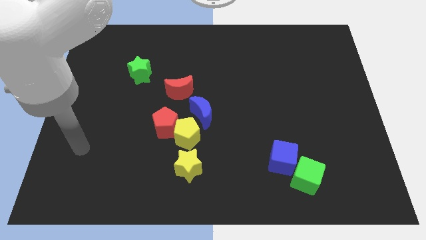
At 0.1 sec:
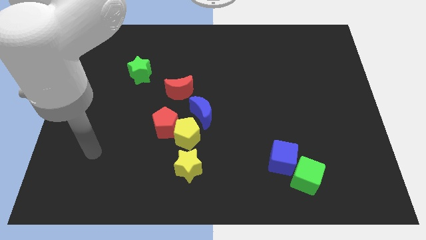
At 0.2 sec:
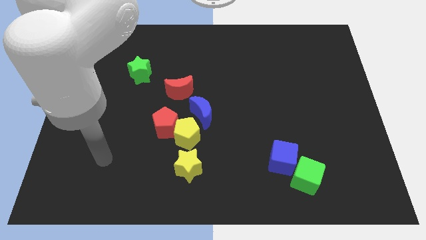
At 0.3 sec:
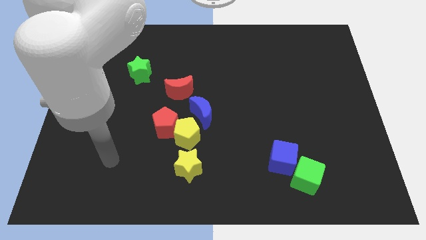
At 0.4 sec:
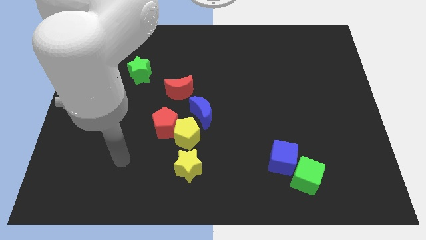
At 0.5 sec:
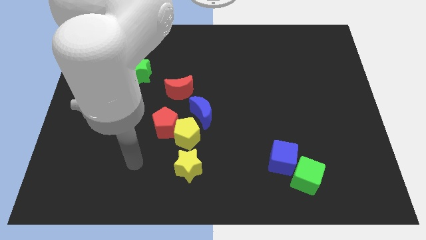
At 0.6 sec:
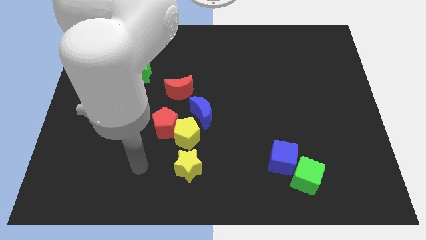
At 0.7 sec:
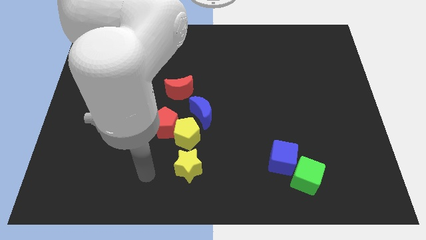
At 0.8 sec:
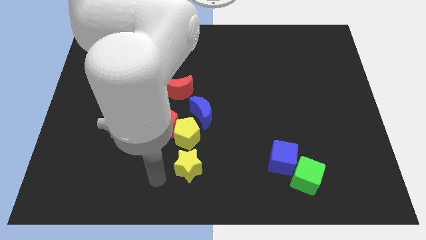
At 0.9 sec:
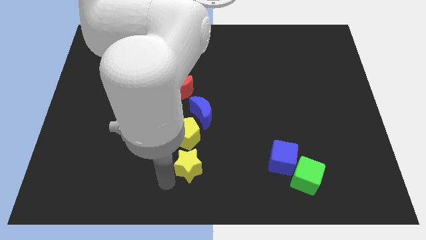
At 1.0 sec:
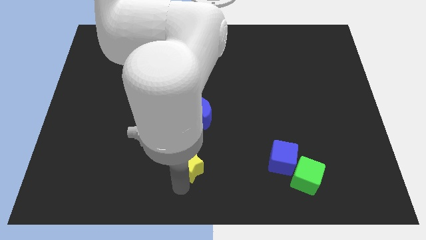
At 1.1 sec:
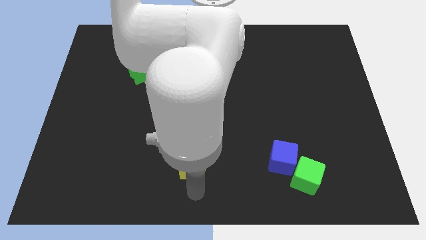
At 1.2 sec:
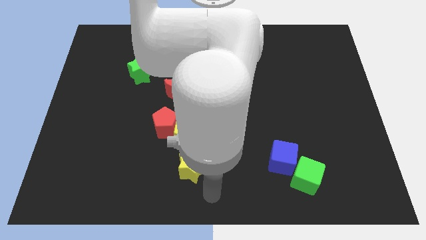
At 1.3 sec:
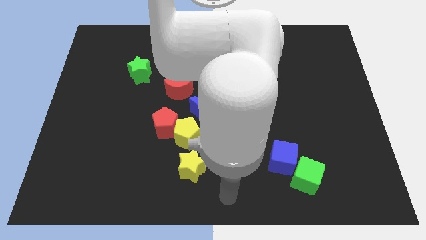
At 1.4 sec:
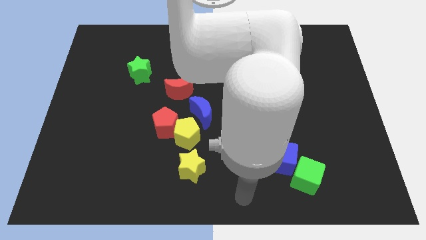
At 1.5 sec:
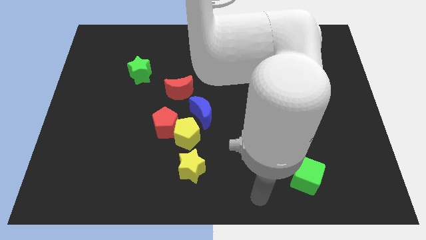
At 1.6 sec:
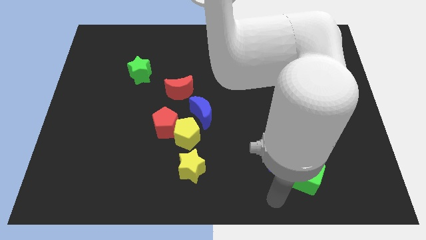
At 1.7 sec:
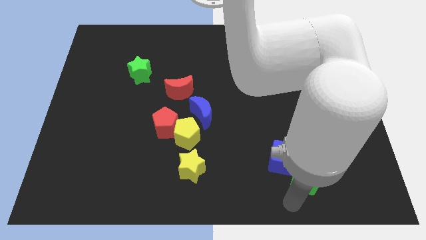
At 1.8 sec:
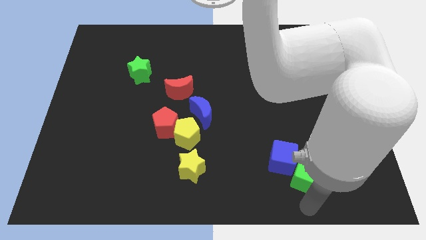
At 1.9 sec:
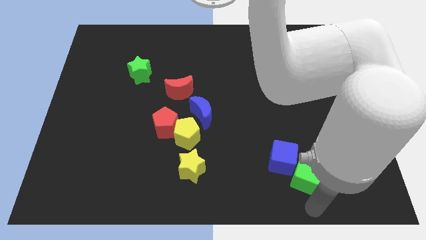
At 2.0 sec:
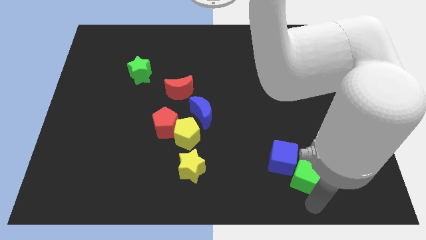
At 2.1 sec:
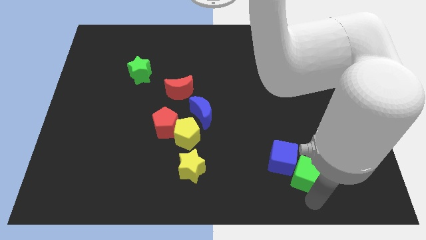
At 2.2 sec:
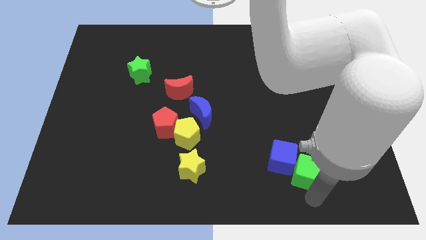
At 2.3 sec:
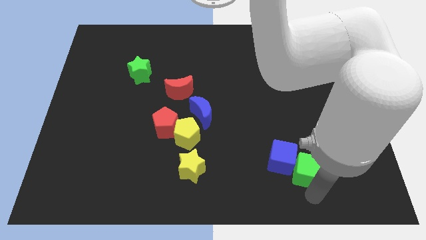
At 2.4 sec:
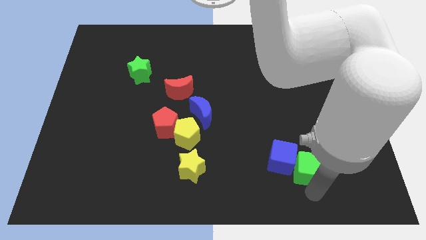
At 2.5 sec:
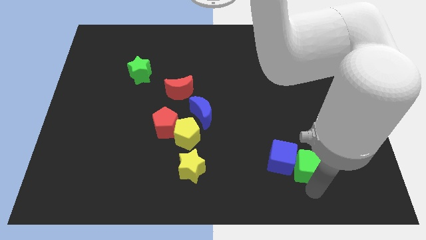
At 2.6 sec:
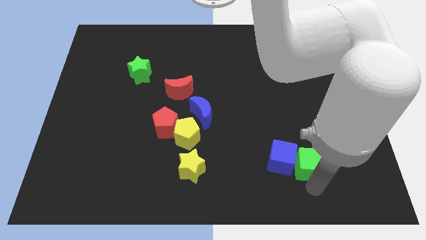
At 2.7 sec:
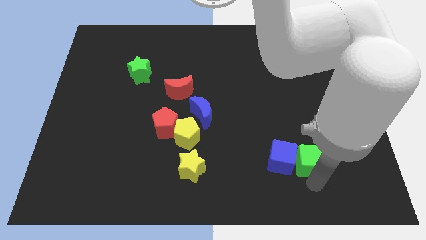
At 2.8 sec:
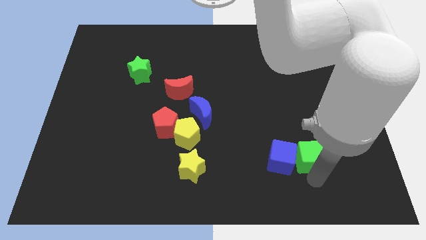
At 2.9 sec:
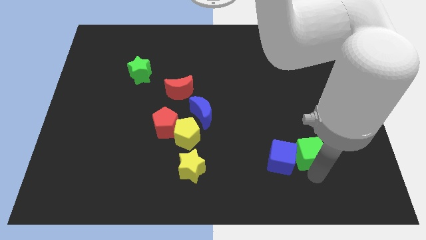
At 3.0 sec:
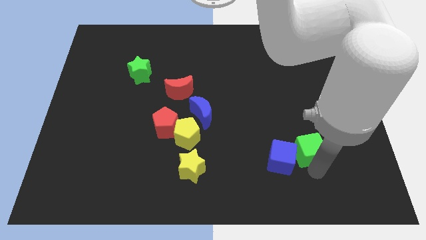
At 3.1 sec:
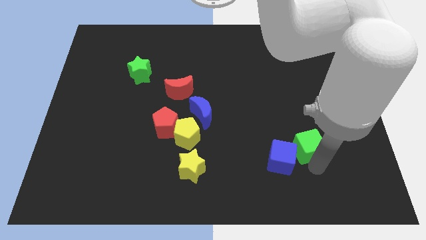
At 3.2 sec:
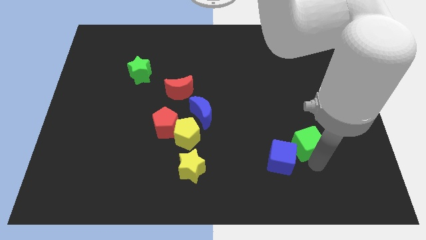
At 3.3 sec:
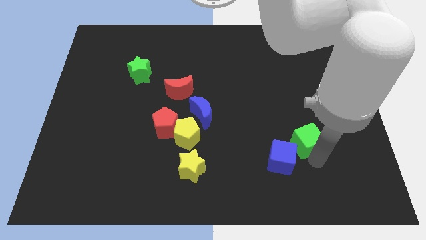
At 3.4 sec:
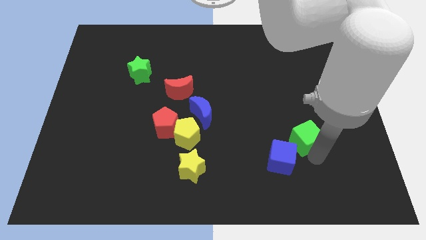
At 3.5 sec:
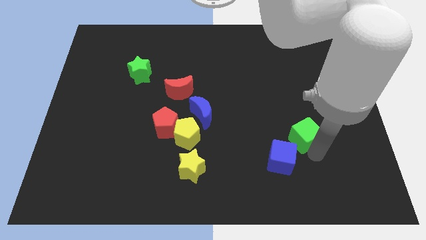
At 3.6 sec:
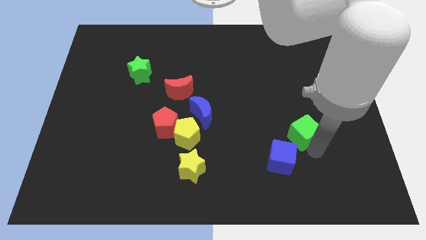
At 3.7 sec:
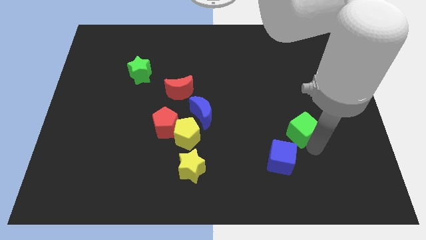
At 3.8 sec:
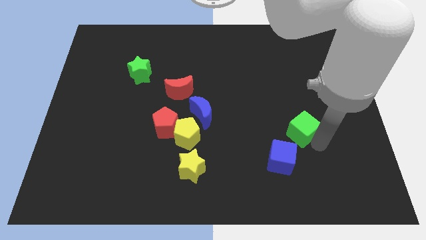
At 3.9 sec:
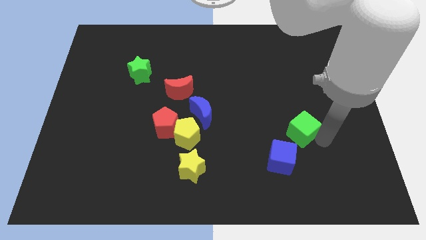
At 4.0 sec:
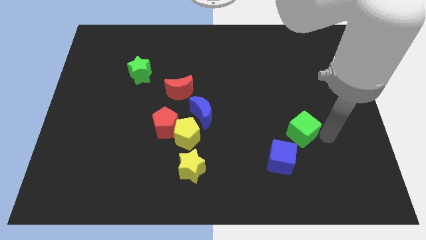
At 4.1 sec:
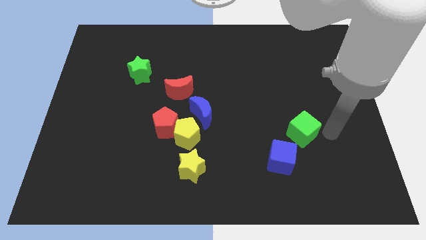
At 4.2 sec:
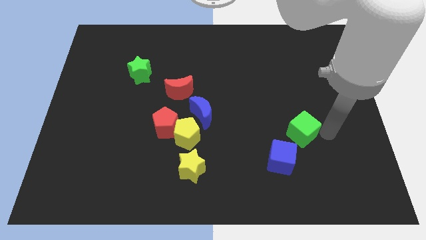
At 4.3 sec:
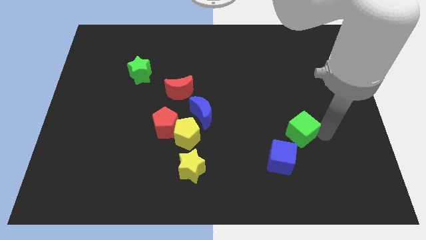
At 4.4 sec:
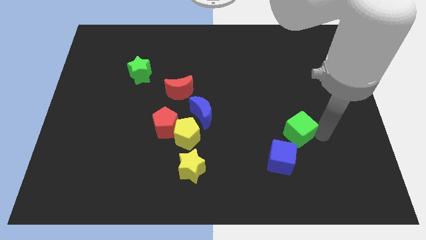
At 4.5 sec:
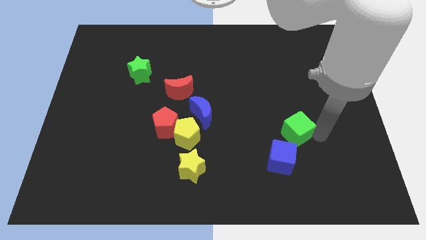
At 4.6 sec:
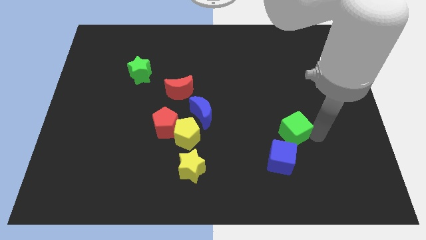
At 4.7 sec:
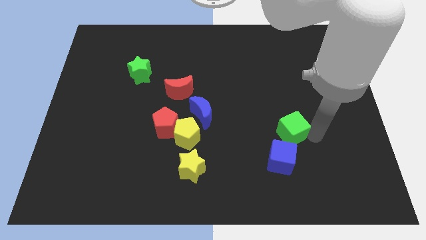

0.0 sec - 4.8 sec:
slightly move the green cube upwards and then left

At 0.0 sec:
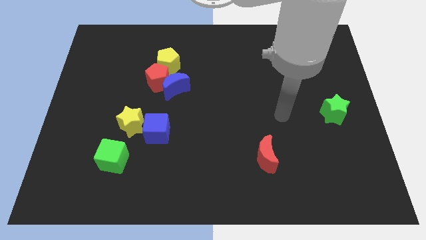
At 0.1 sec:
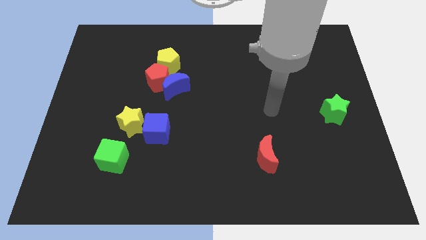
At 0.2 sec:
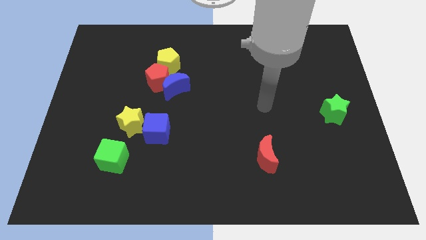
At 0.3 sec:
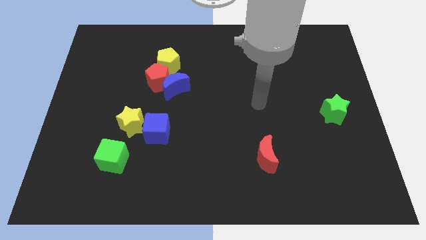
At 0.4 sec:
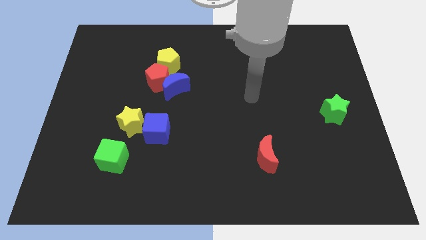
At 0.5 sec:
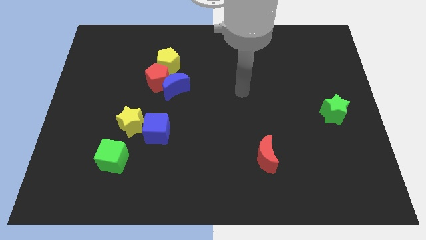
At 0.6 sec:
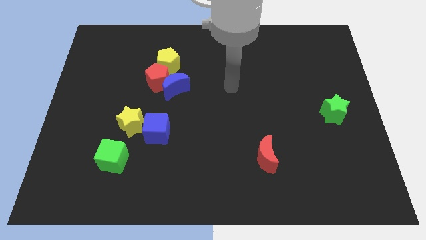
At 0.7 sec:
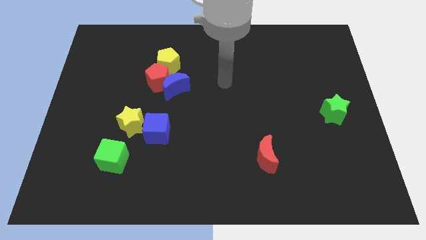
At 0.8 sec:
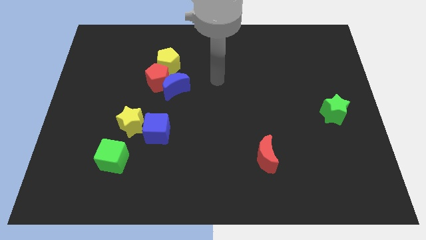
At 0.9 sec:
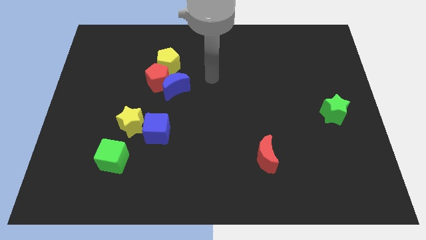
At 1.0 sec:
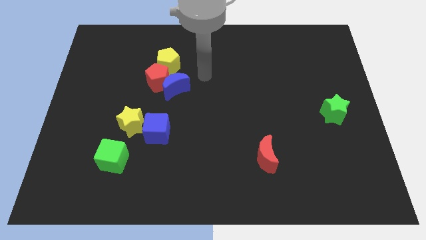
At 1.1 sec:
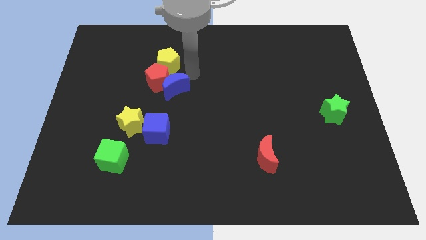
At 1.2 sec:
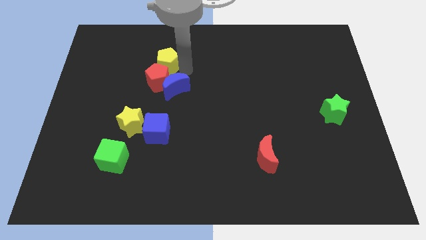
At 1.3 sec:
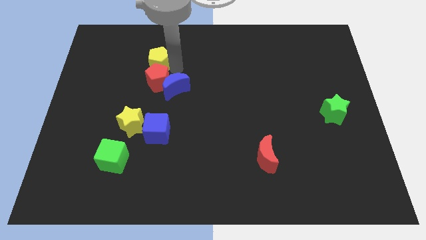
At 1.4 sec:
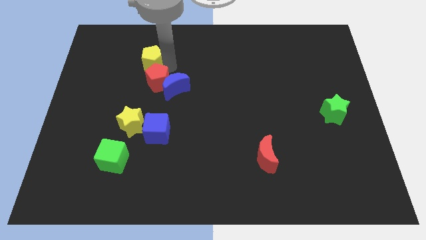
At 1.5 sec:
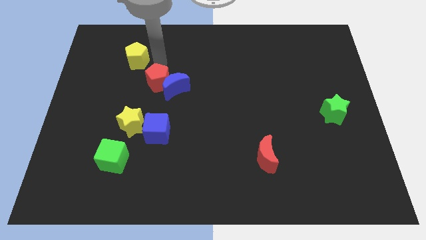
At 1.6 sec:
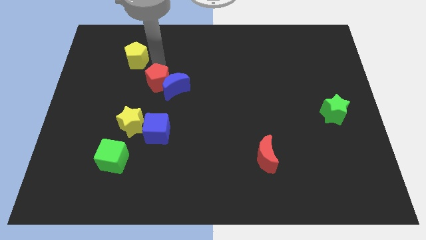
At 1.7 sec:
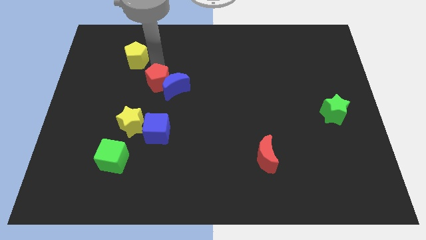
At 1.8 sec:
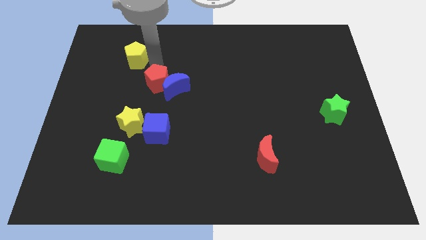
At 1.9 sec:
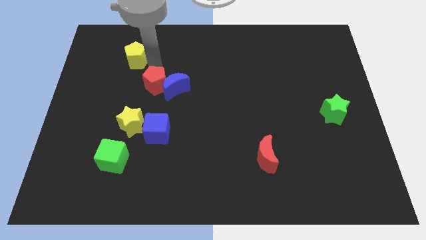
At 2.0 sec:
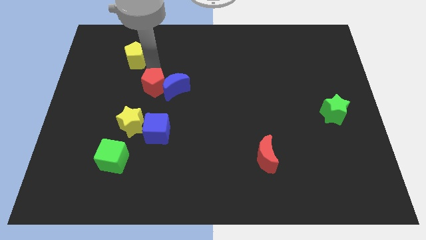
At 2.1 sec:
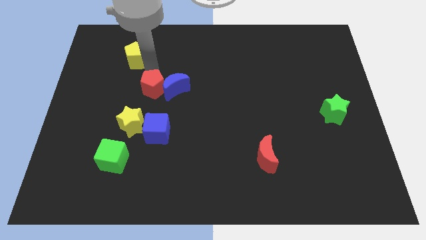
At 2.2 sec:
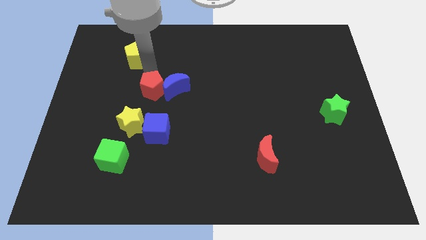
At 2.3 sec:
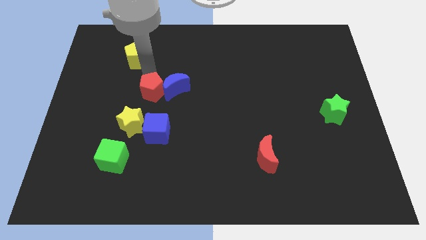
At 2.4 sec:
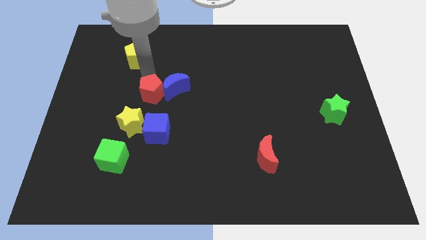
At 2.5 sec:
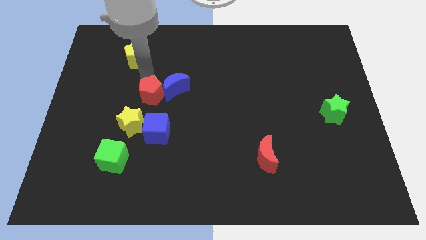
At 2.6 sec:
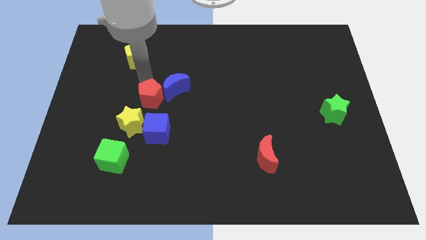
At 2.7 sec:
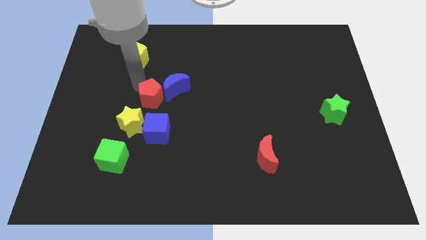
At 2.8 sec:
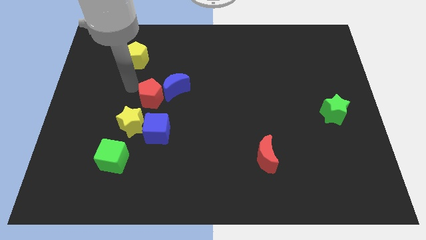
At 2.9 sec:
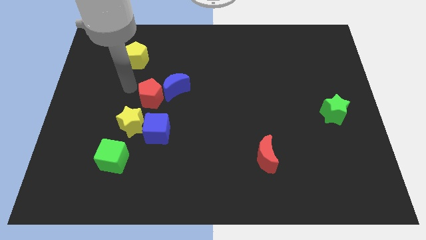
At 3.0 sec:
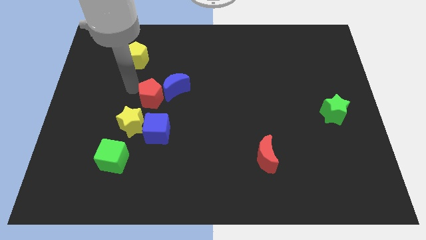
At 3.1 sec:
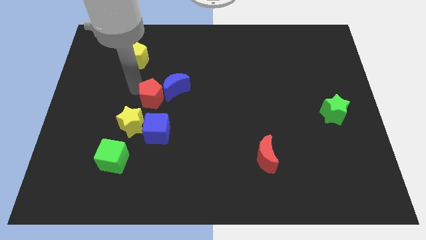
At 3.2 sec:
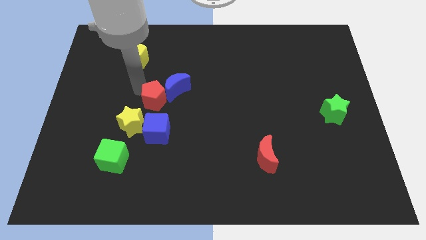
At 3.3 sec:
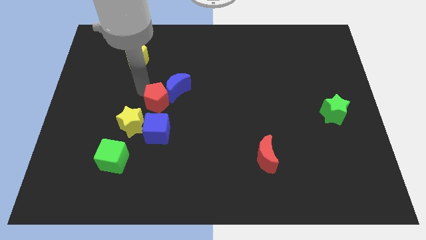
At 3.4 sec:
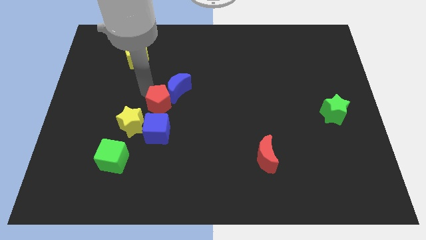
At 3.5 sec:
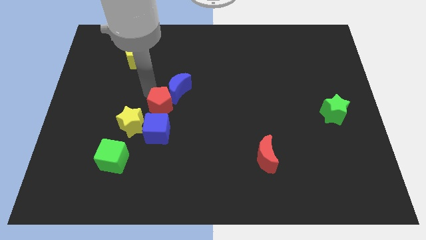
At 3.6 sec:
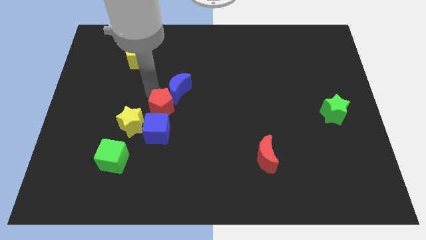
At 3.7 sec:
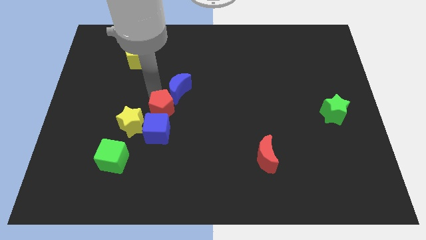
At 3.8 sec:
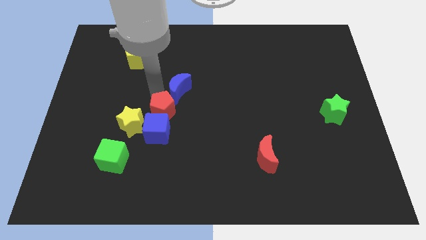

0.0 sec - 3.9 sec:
move the red pentagon downwards and right diagonally a little bit
